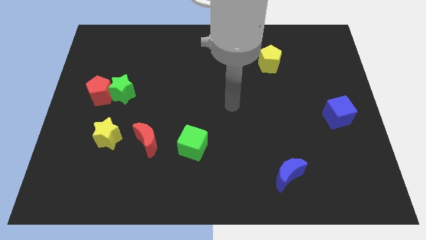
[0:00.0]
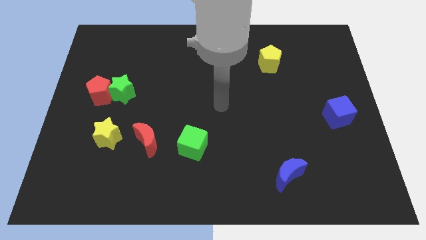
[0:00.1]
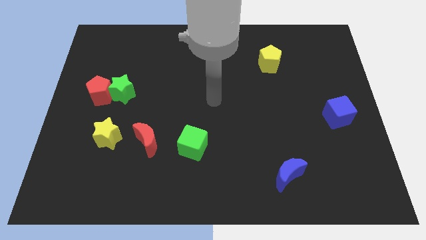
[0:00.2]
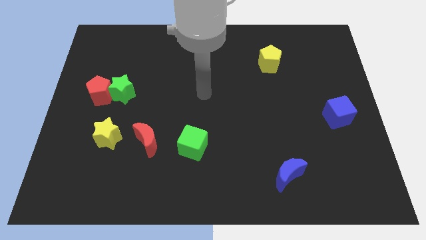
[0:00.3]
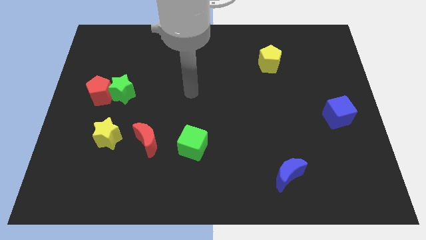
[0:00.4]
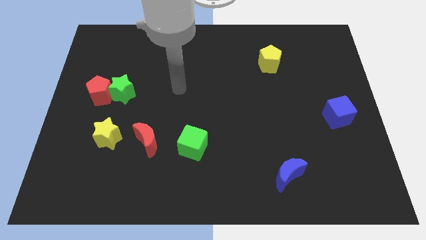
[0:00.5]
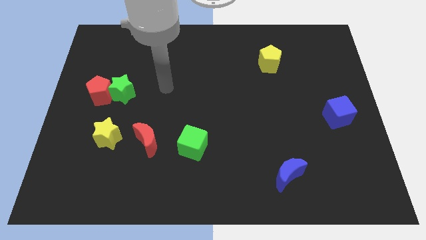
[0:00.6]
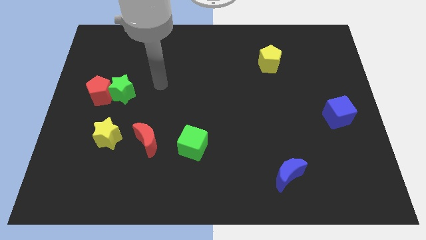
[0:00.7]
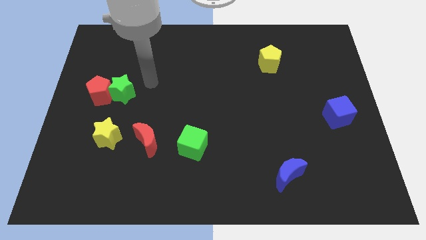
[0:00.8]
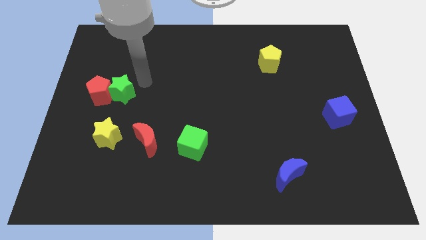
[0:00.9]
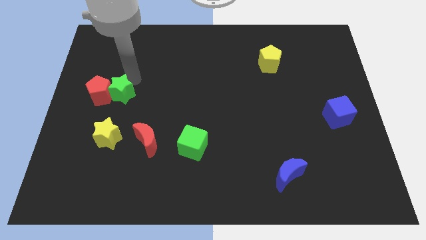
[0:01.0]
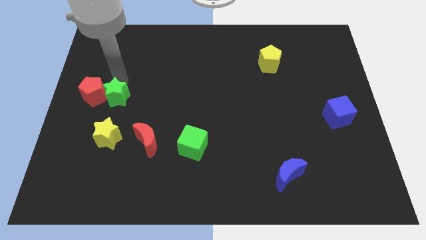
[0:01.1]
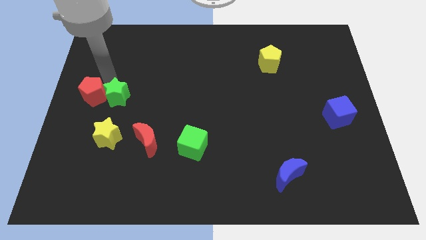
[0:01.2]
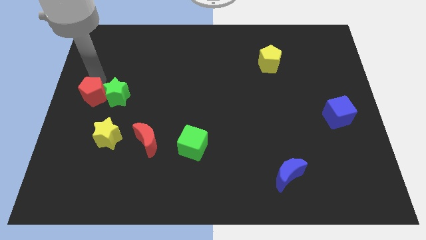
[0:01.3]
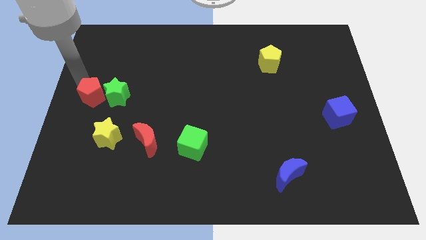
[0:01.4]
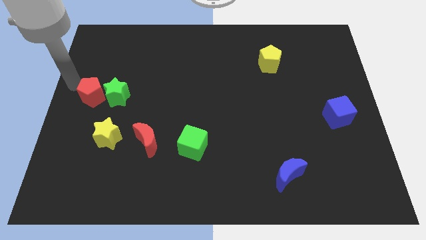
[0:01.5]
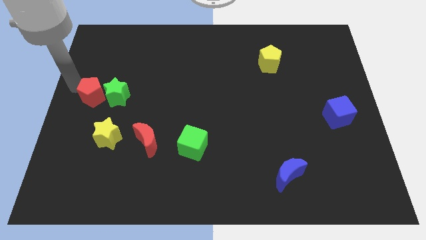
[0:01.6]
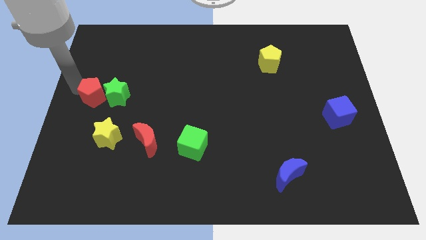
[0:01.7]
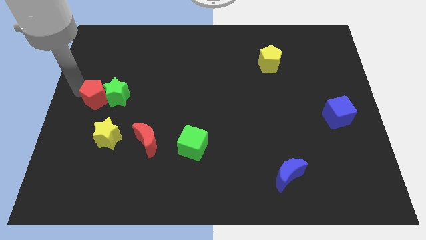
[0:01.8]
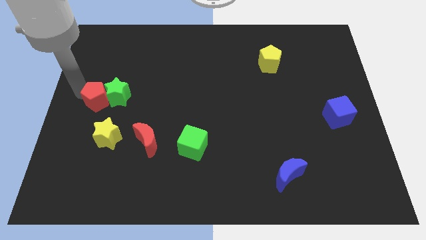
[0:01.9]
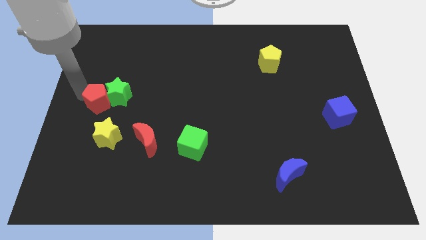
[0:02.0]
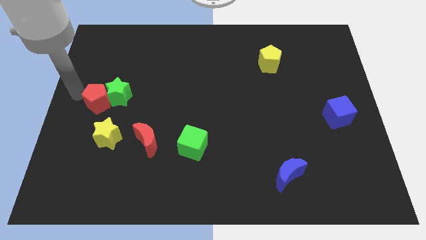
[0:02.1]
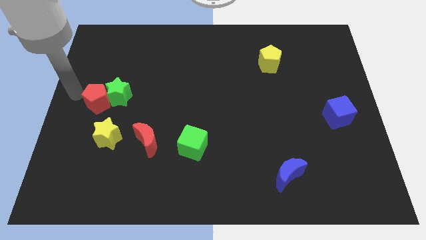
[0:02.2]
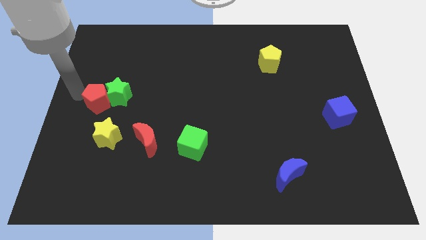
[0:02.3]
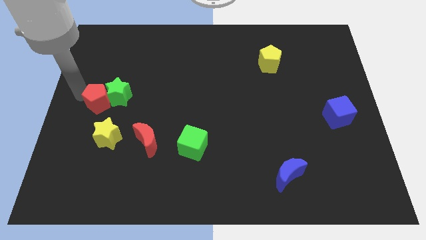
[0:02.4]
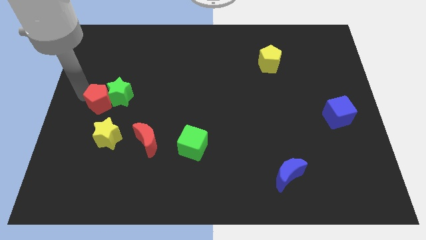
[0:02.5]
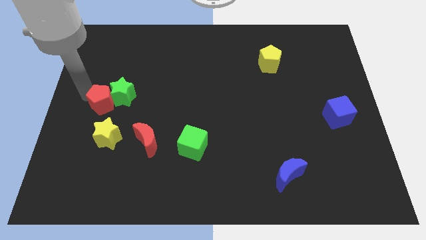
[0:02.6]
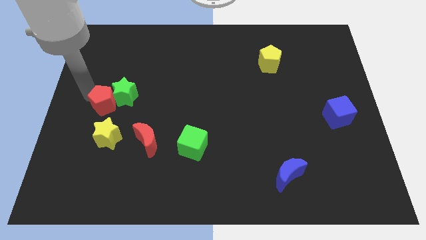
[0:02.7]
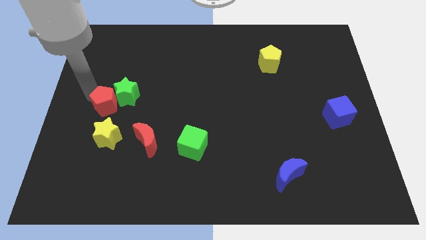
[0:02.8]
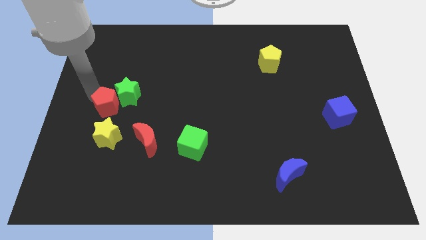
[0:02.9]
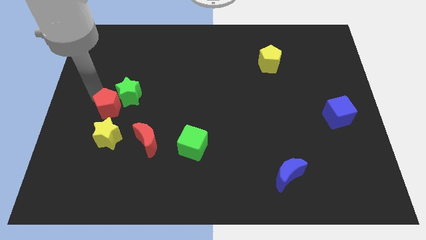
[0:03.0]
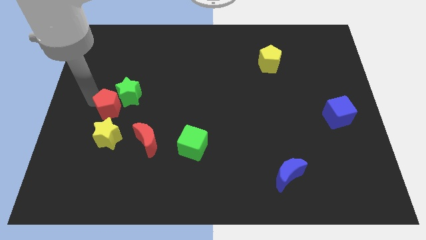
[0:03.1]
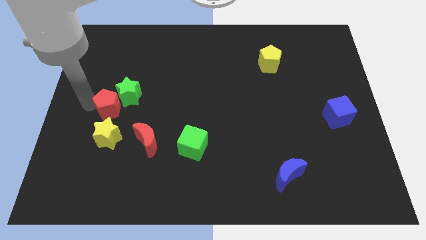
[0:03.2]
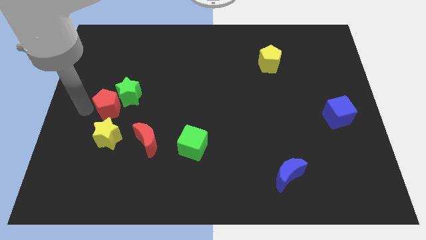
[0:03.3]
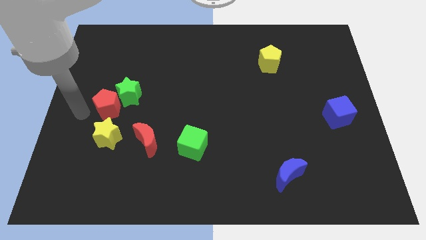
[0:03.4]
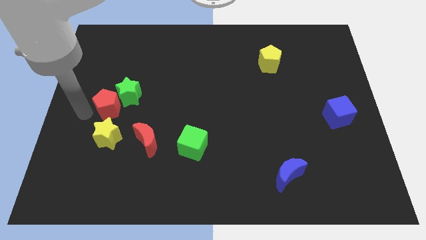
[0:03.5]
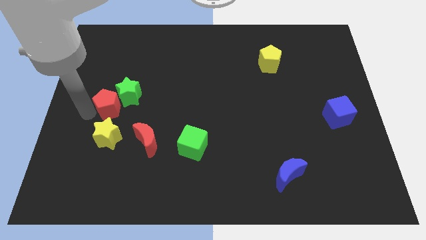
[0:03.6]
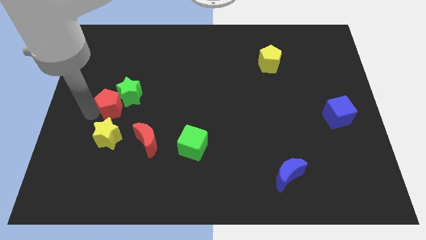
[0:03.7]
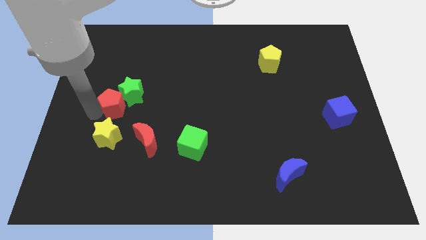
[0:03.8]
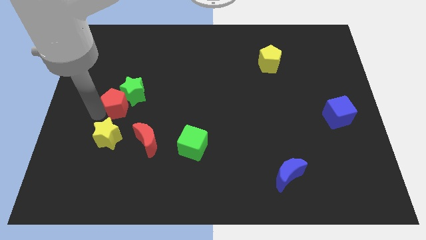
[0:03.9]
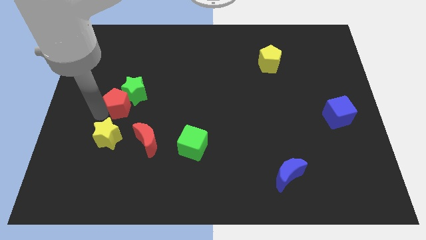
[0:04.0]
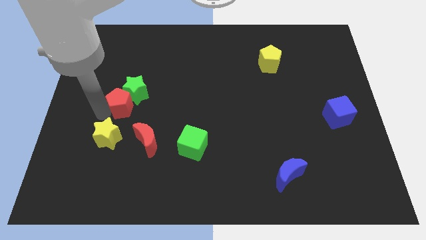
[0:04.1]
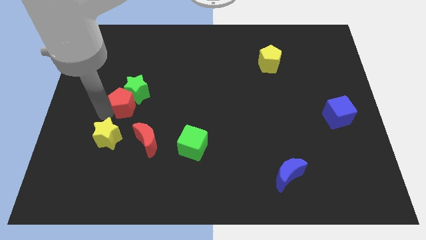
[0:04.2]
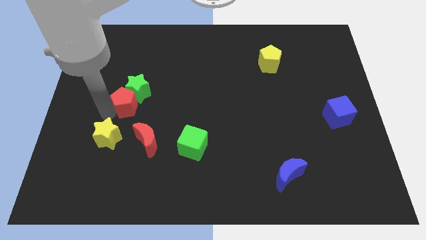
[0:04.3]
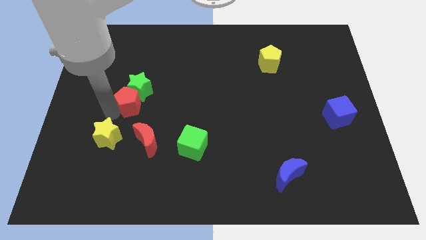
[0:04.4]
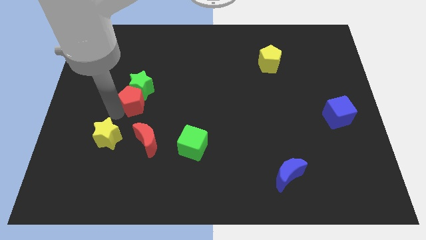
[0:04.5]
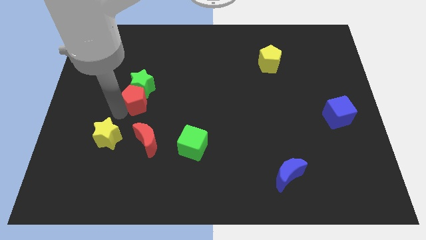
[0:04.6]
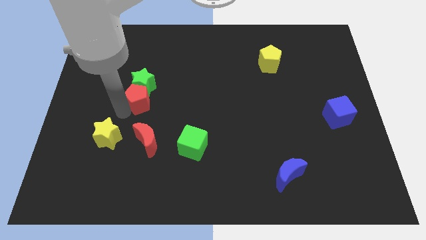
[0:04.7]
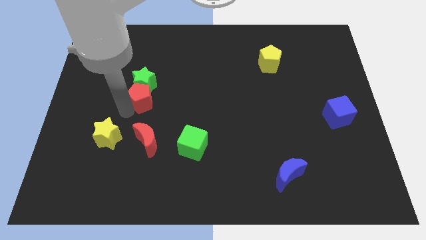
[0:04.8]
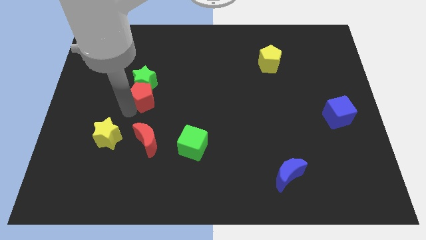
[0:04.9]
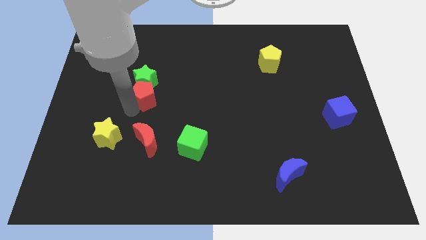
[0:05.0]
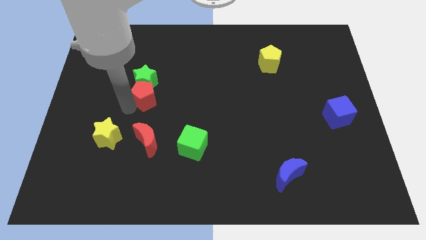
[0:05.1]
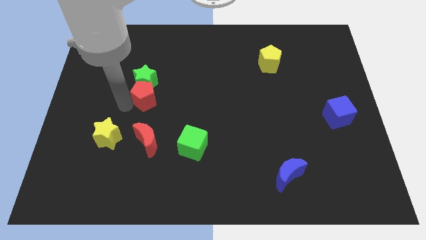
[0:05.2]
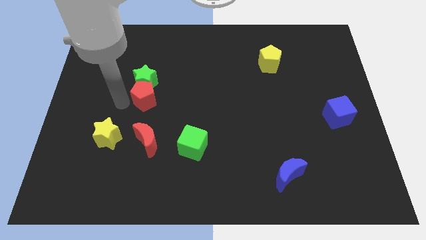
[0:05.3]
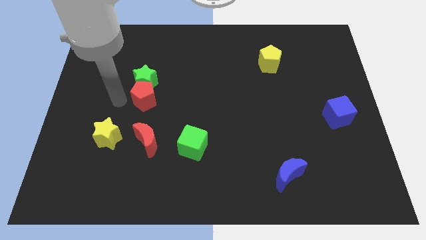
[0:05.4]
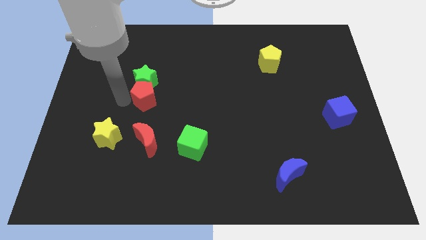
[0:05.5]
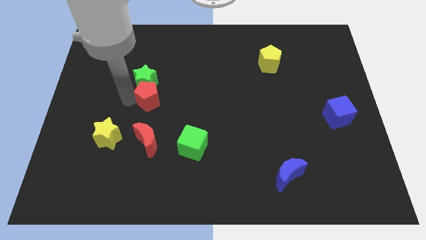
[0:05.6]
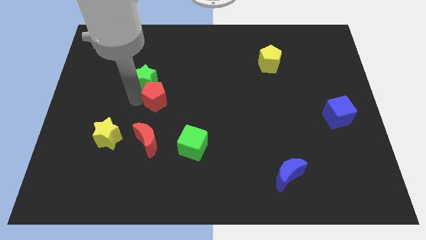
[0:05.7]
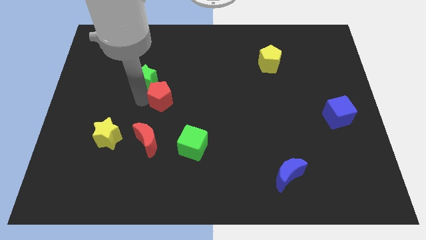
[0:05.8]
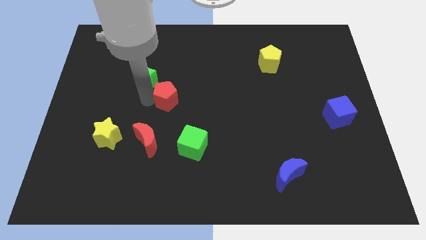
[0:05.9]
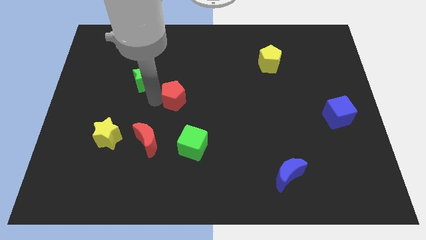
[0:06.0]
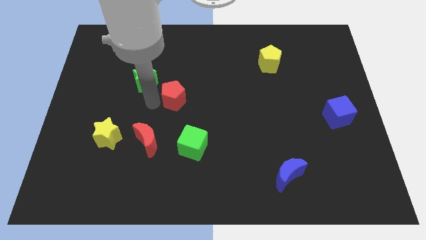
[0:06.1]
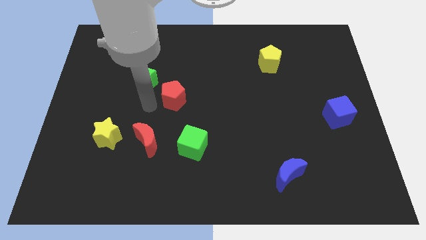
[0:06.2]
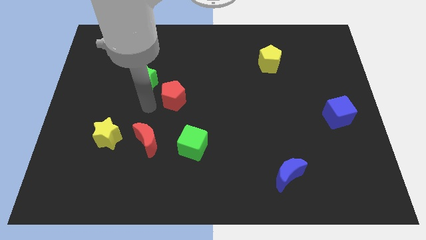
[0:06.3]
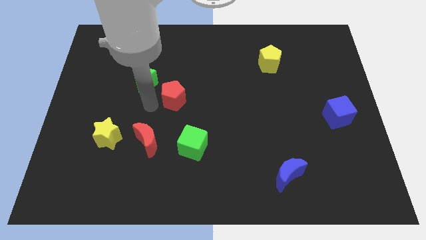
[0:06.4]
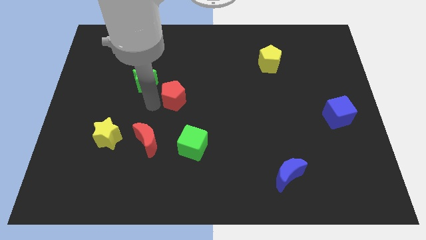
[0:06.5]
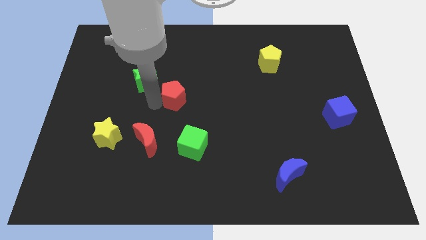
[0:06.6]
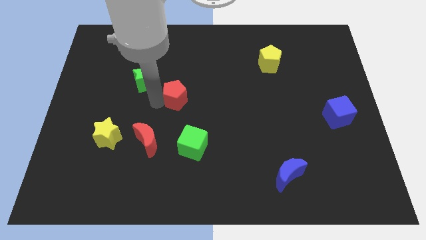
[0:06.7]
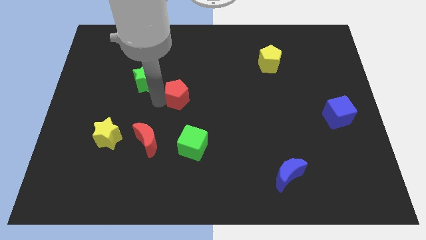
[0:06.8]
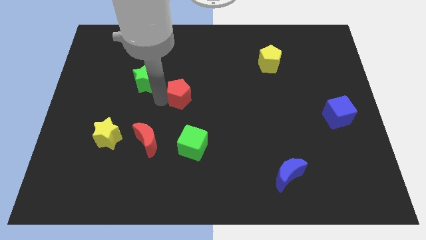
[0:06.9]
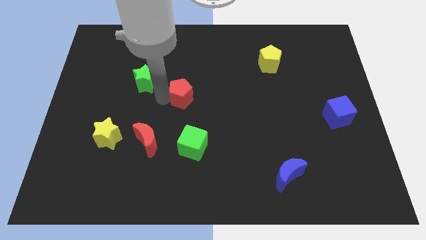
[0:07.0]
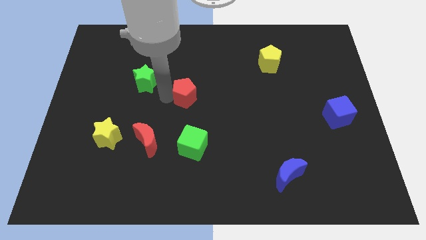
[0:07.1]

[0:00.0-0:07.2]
move the red pentagon right

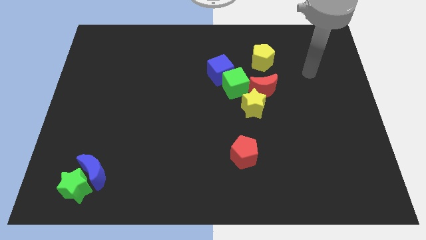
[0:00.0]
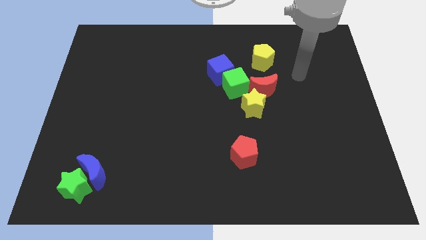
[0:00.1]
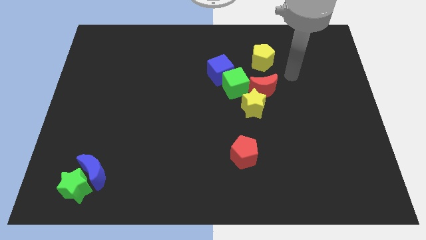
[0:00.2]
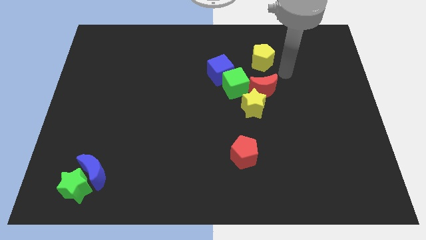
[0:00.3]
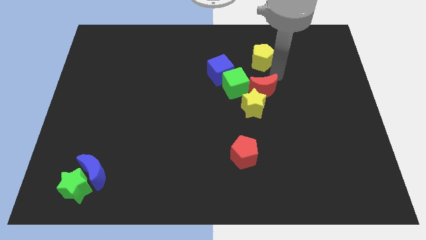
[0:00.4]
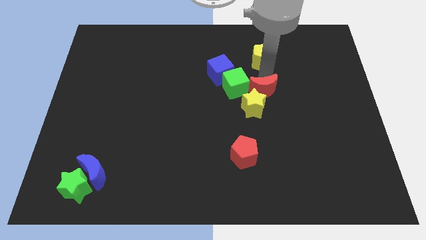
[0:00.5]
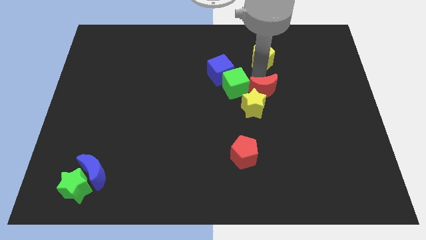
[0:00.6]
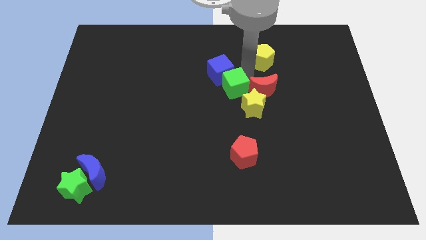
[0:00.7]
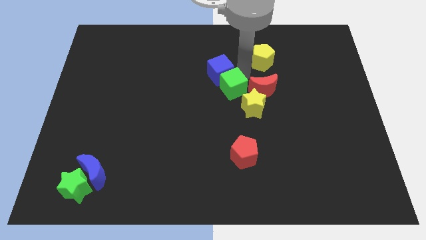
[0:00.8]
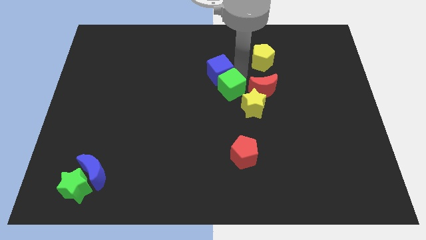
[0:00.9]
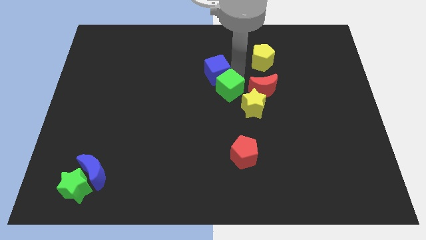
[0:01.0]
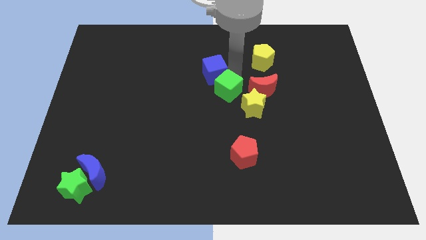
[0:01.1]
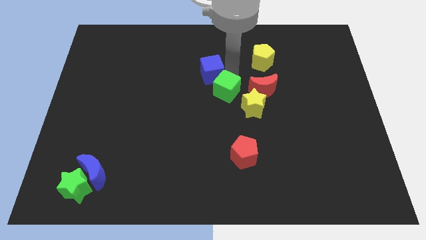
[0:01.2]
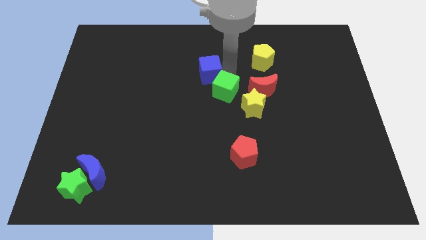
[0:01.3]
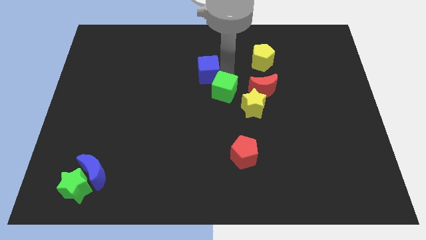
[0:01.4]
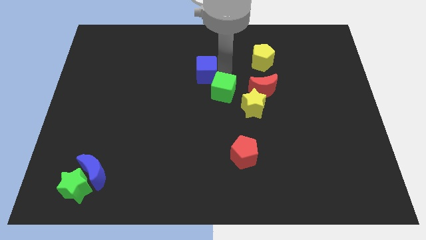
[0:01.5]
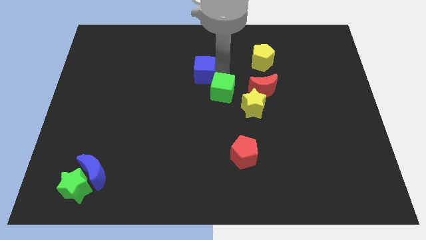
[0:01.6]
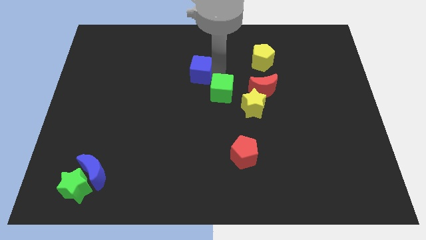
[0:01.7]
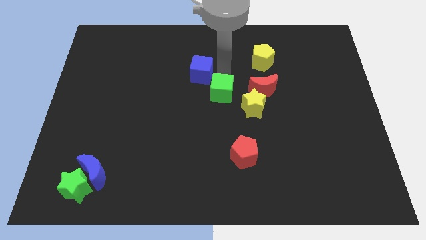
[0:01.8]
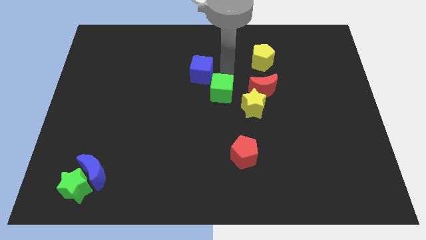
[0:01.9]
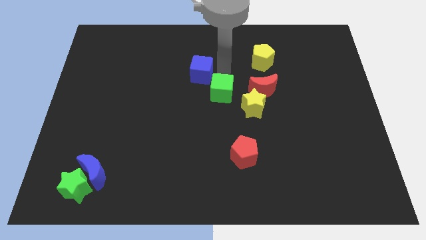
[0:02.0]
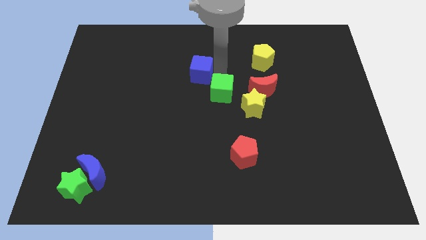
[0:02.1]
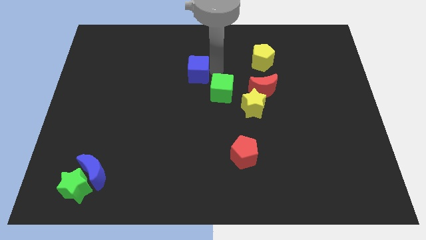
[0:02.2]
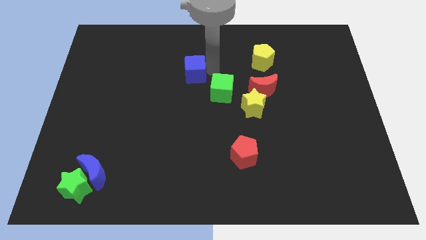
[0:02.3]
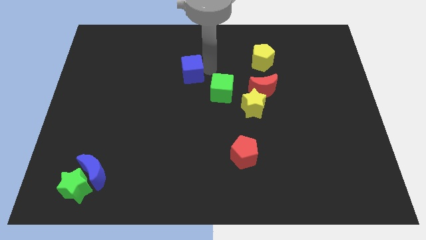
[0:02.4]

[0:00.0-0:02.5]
move the blue cube a little left
